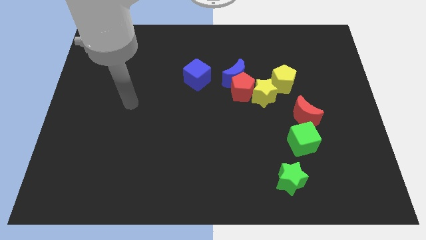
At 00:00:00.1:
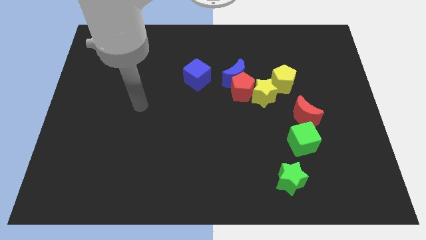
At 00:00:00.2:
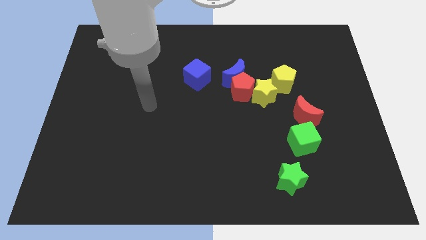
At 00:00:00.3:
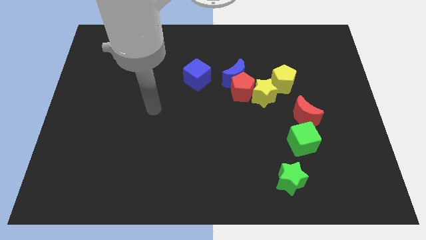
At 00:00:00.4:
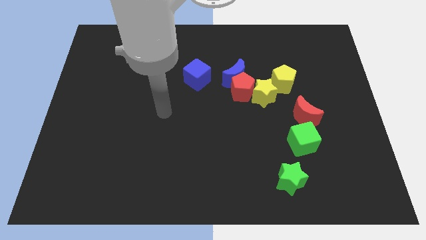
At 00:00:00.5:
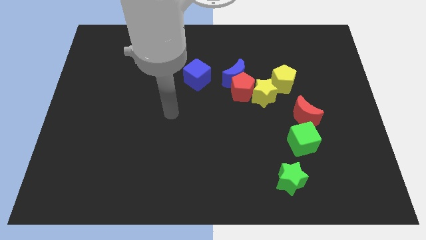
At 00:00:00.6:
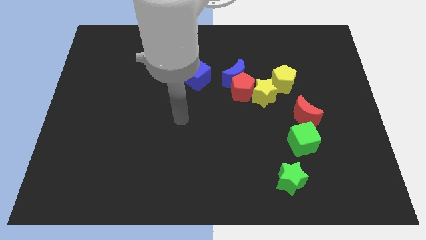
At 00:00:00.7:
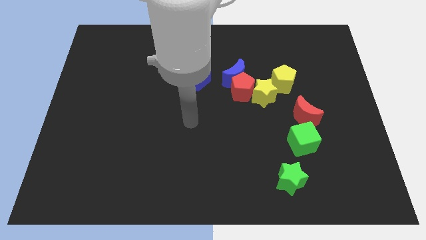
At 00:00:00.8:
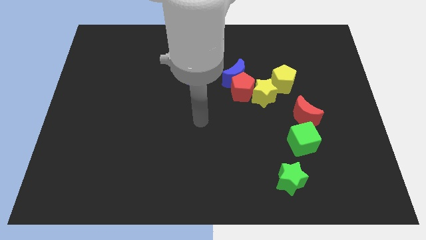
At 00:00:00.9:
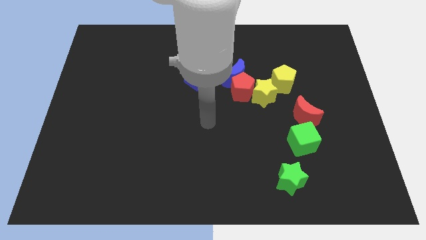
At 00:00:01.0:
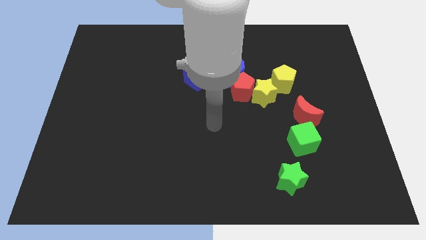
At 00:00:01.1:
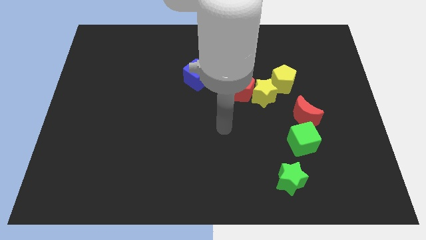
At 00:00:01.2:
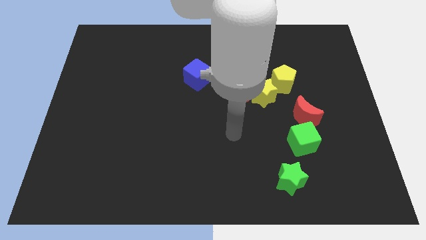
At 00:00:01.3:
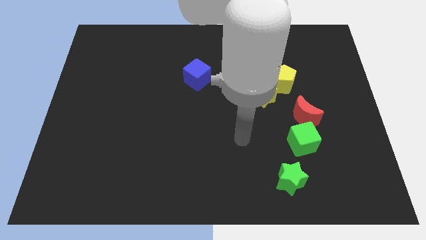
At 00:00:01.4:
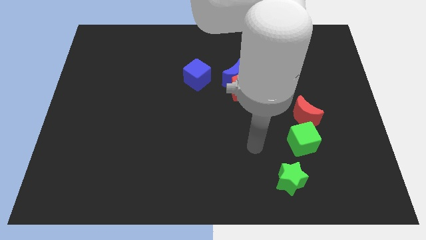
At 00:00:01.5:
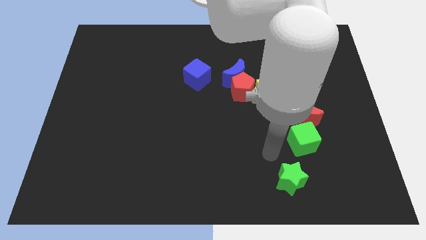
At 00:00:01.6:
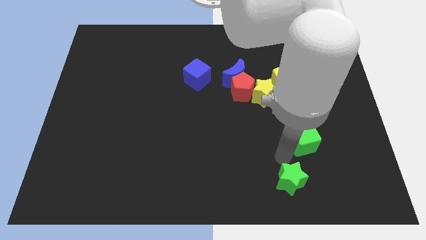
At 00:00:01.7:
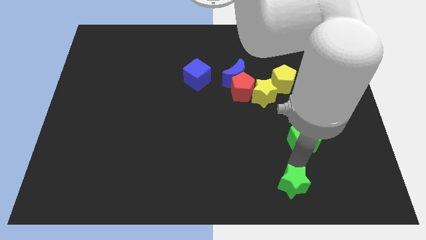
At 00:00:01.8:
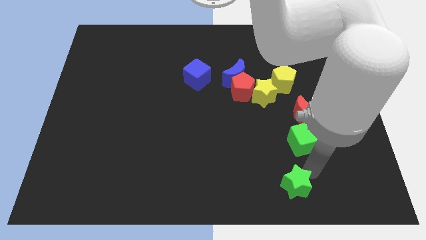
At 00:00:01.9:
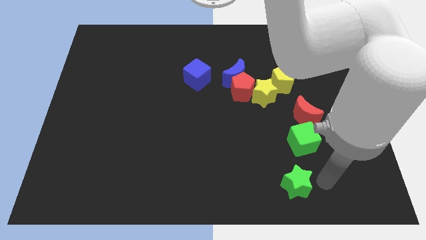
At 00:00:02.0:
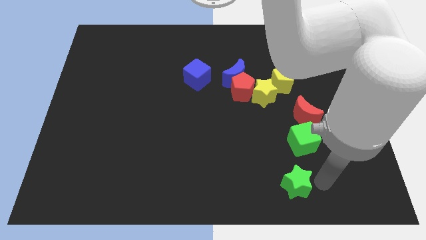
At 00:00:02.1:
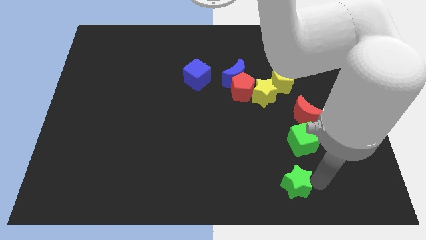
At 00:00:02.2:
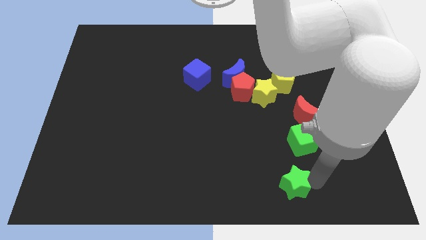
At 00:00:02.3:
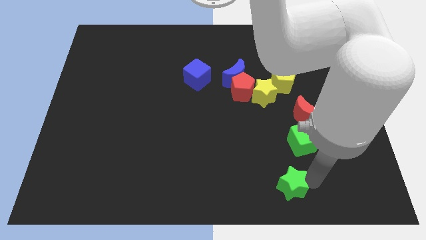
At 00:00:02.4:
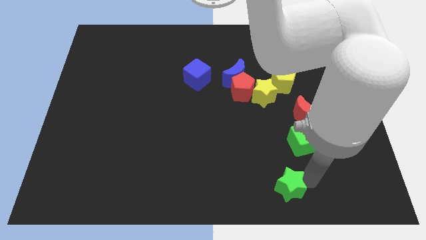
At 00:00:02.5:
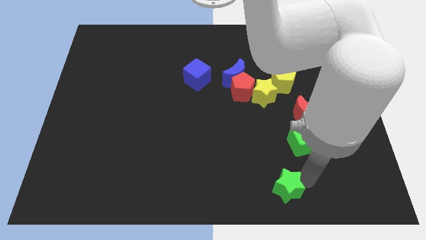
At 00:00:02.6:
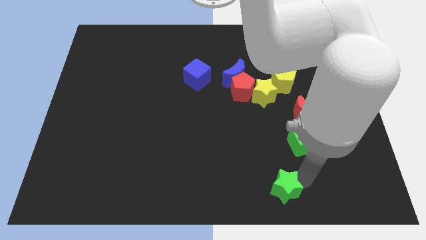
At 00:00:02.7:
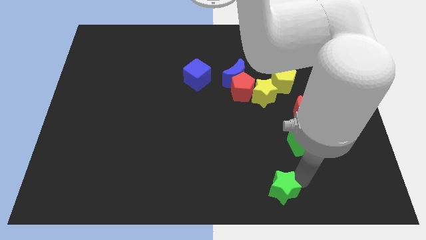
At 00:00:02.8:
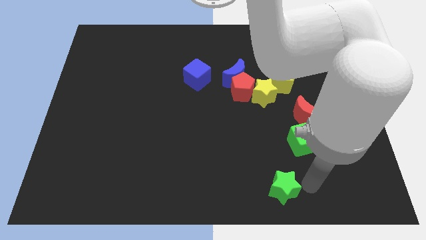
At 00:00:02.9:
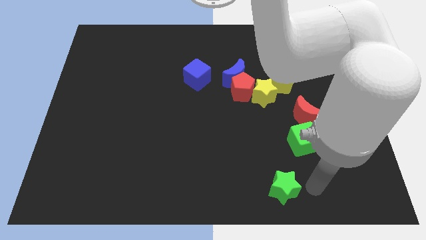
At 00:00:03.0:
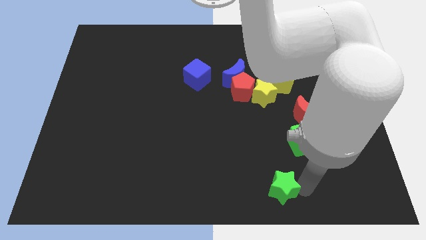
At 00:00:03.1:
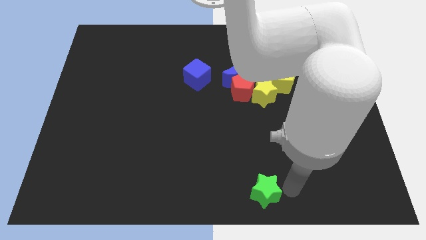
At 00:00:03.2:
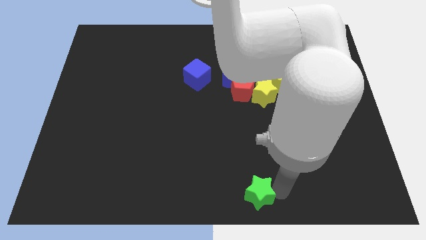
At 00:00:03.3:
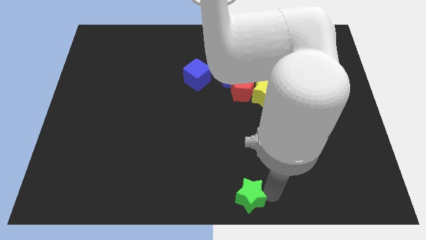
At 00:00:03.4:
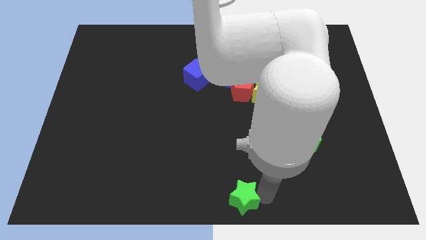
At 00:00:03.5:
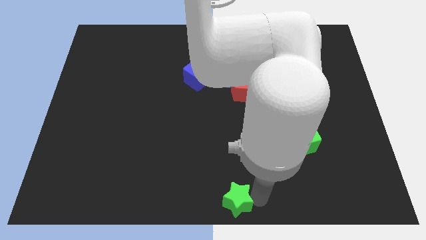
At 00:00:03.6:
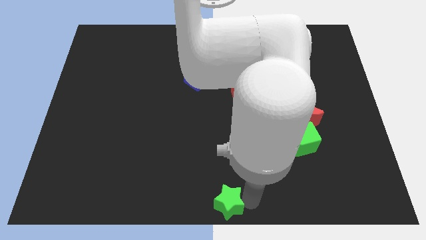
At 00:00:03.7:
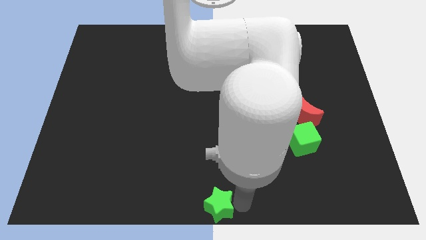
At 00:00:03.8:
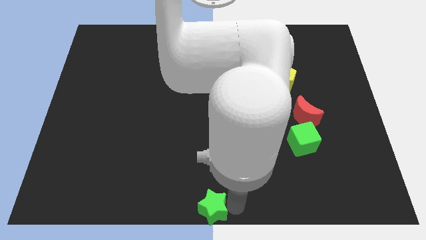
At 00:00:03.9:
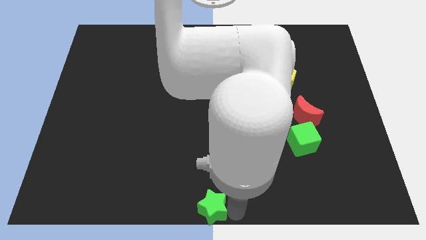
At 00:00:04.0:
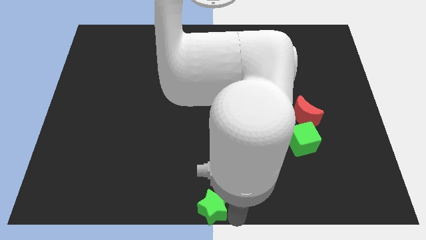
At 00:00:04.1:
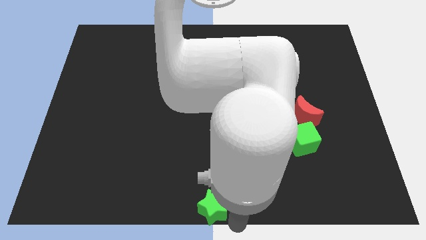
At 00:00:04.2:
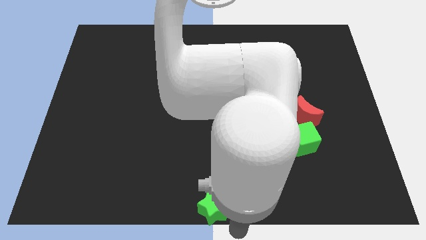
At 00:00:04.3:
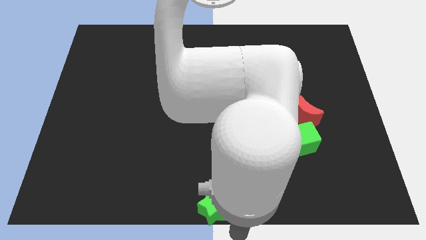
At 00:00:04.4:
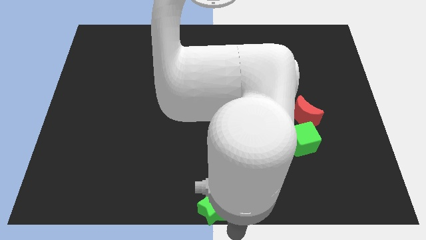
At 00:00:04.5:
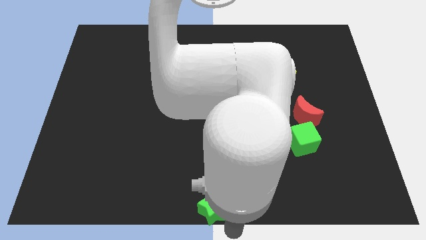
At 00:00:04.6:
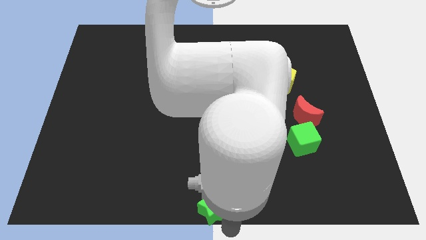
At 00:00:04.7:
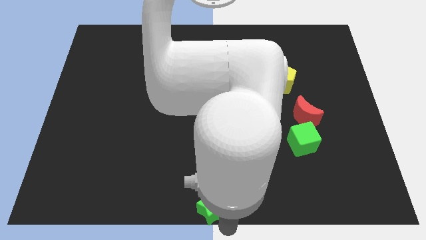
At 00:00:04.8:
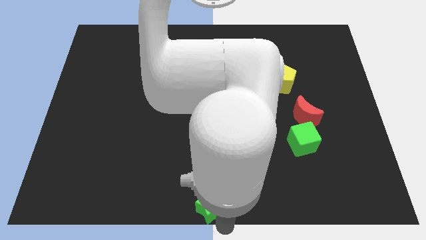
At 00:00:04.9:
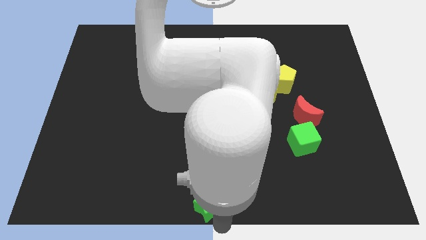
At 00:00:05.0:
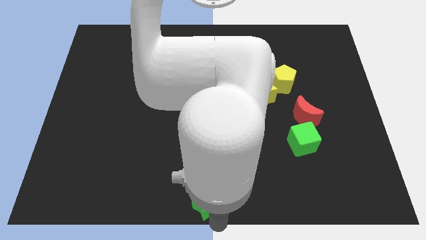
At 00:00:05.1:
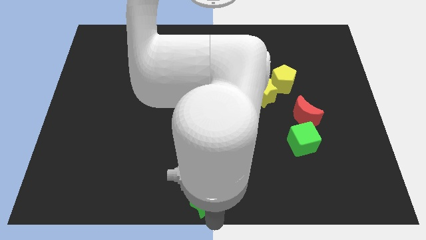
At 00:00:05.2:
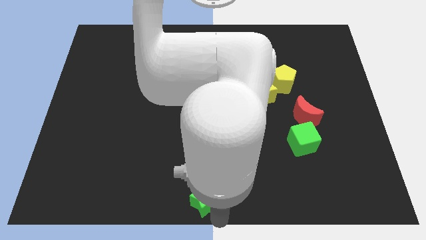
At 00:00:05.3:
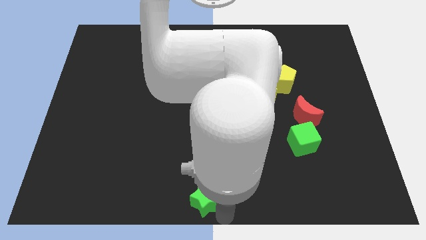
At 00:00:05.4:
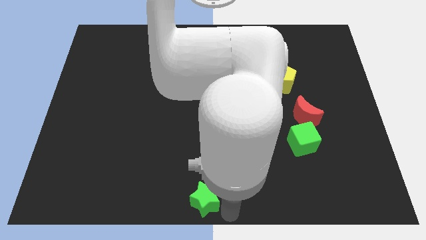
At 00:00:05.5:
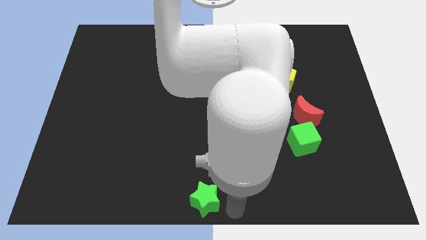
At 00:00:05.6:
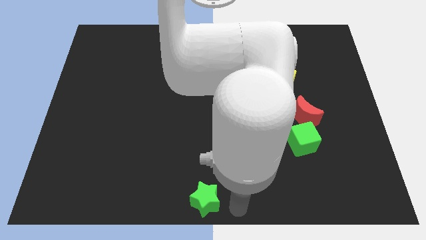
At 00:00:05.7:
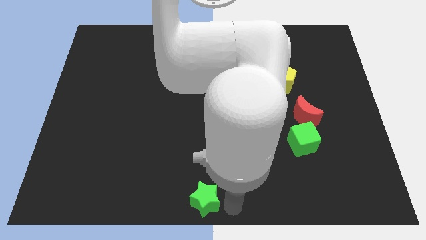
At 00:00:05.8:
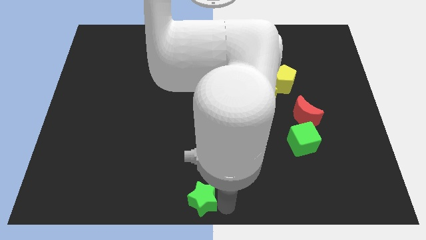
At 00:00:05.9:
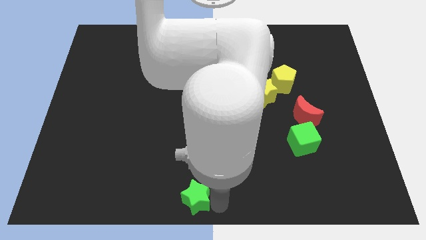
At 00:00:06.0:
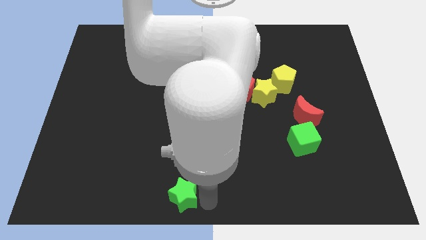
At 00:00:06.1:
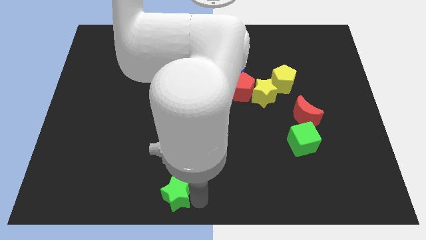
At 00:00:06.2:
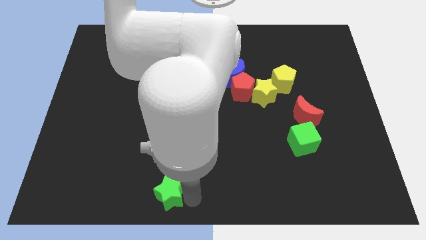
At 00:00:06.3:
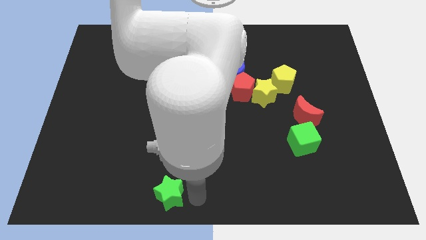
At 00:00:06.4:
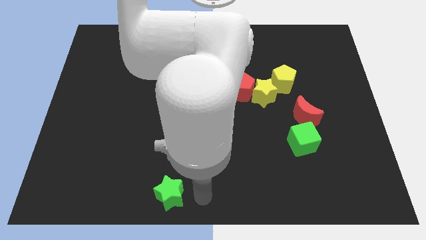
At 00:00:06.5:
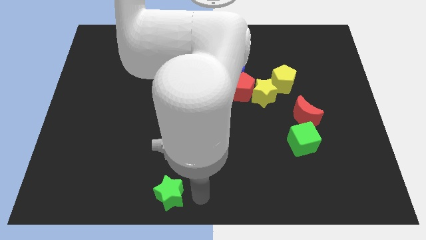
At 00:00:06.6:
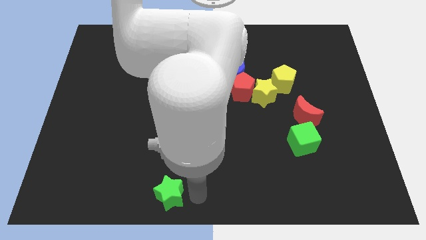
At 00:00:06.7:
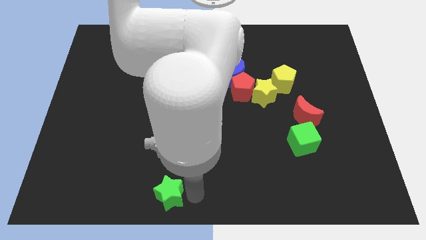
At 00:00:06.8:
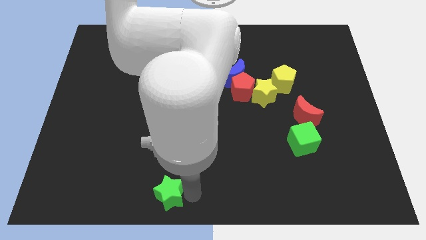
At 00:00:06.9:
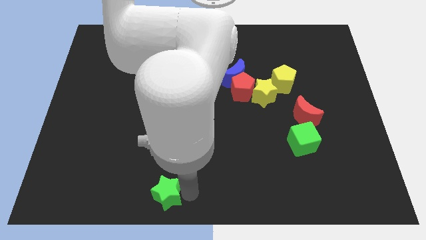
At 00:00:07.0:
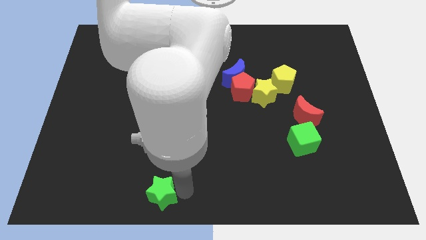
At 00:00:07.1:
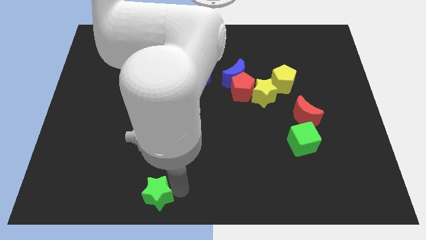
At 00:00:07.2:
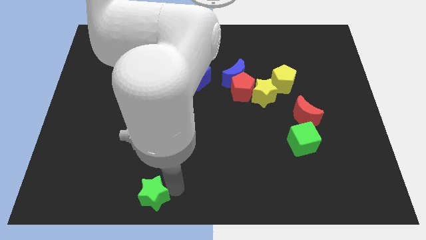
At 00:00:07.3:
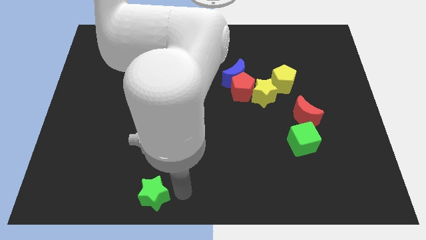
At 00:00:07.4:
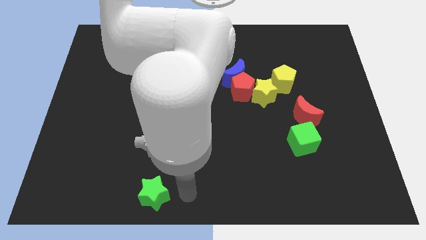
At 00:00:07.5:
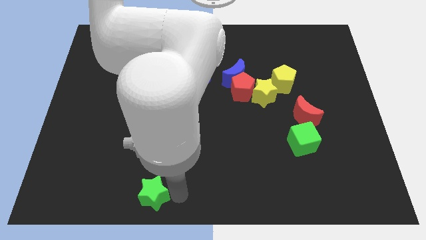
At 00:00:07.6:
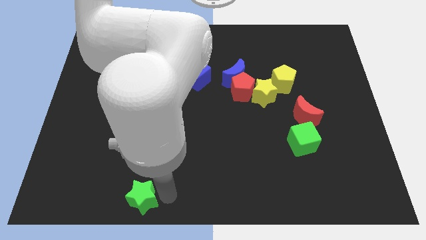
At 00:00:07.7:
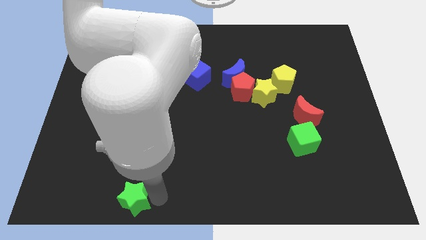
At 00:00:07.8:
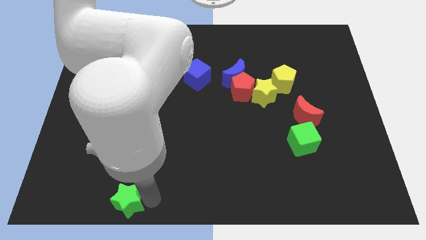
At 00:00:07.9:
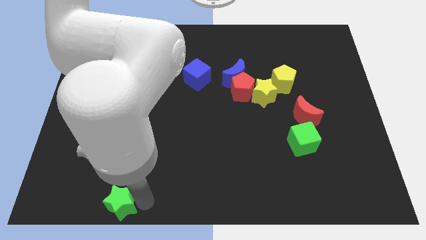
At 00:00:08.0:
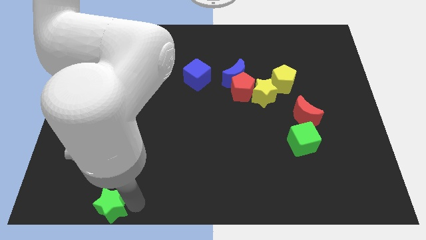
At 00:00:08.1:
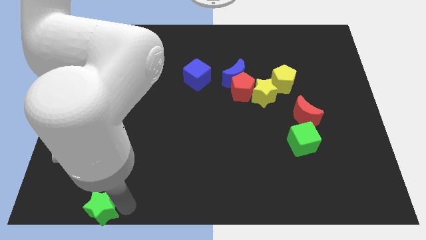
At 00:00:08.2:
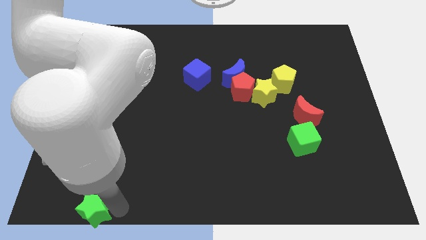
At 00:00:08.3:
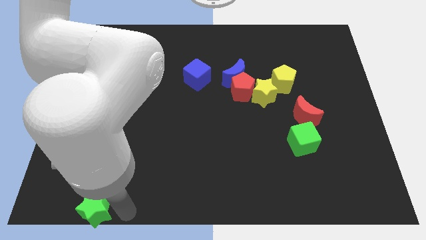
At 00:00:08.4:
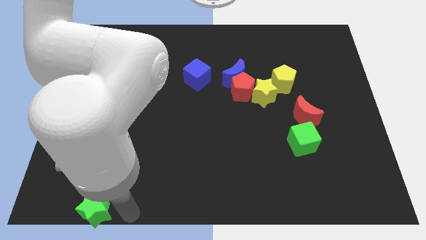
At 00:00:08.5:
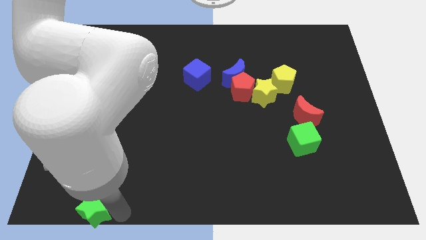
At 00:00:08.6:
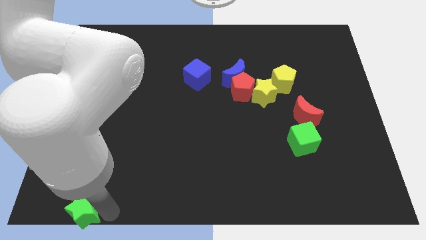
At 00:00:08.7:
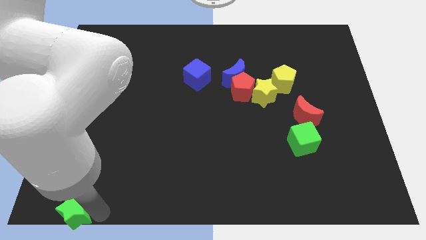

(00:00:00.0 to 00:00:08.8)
push the green star to the lower left corner
